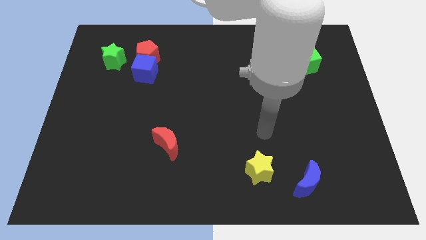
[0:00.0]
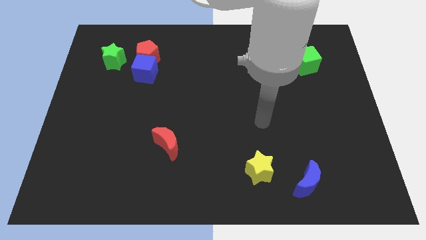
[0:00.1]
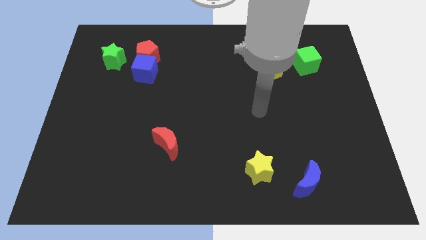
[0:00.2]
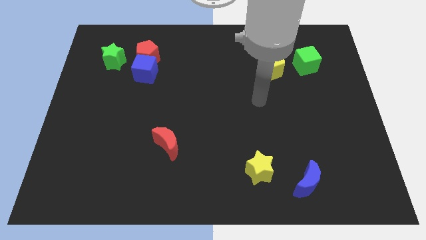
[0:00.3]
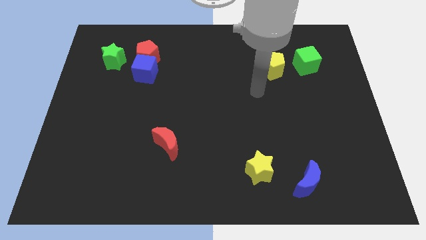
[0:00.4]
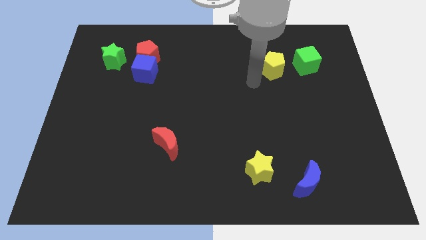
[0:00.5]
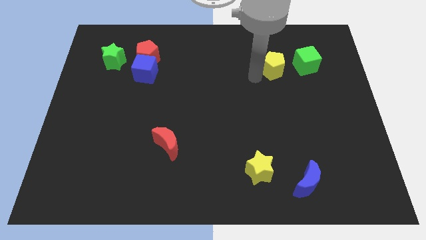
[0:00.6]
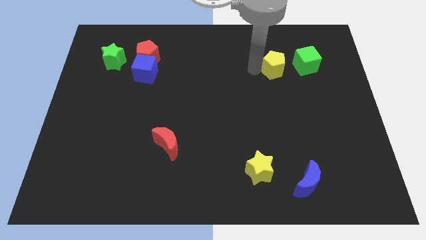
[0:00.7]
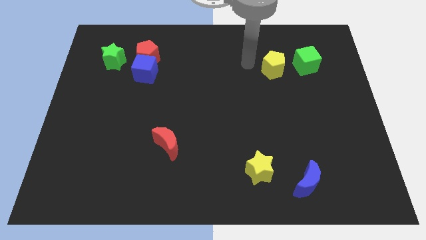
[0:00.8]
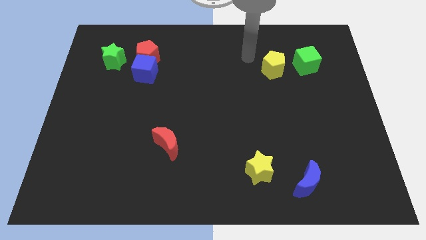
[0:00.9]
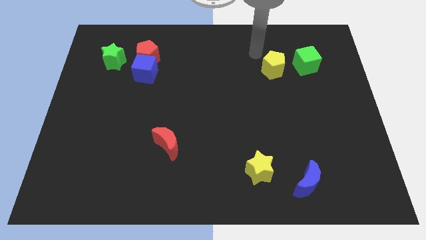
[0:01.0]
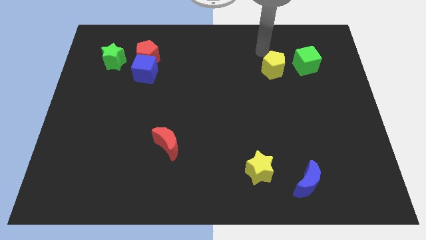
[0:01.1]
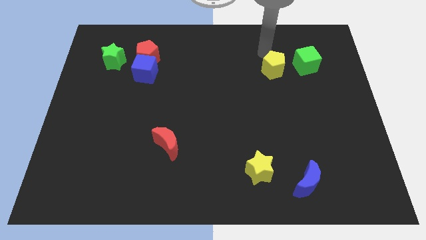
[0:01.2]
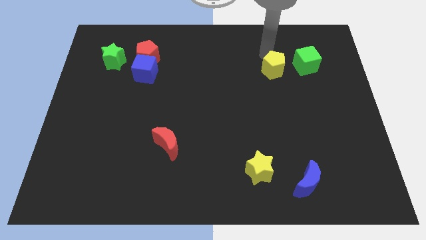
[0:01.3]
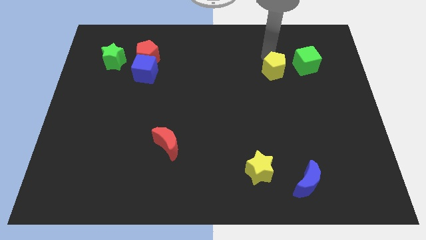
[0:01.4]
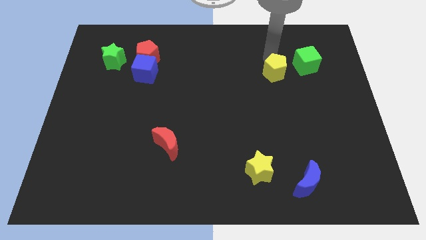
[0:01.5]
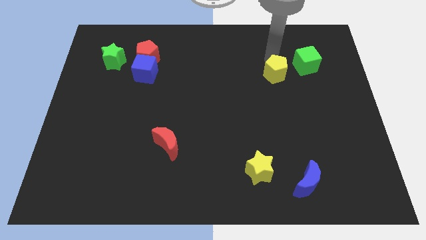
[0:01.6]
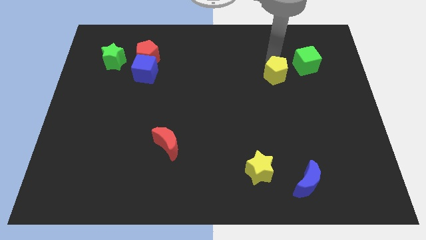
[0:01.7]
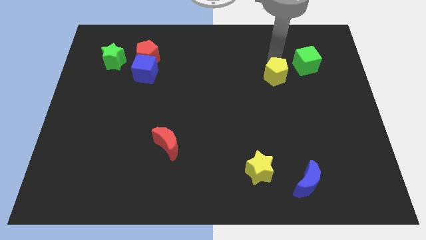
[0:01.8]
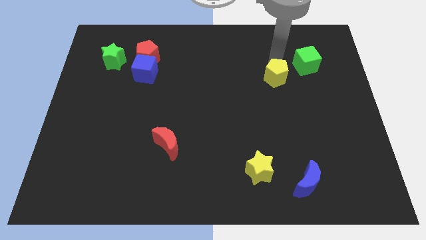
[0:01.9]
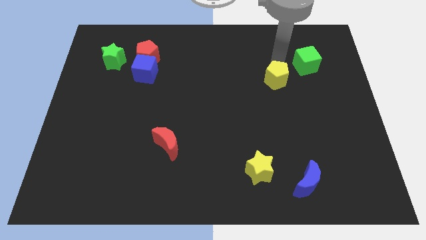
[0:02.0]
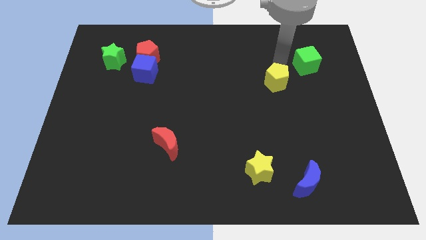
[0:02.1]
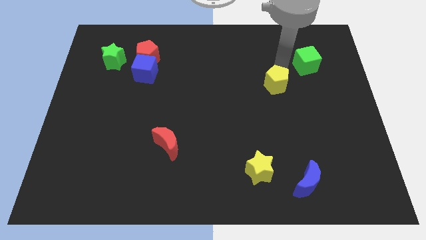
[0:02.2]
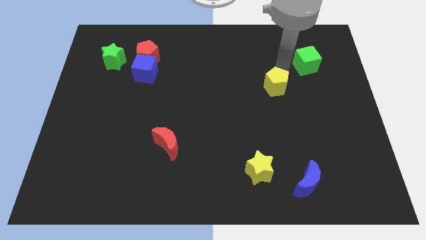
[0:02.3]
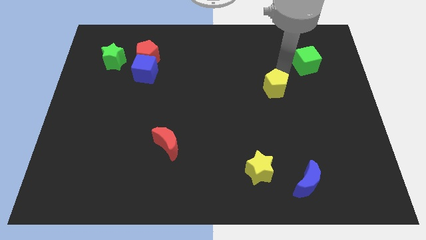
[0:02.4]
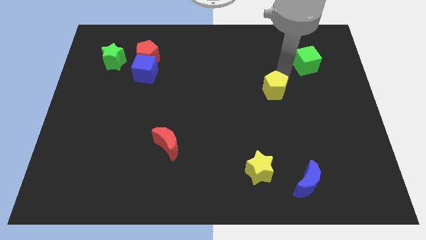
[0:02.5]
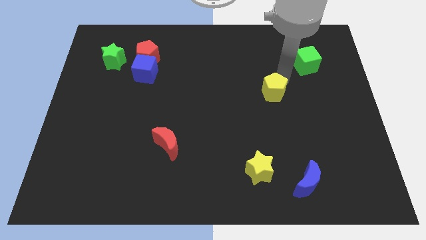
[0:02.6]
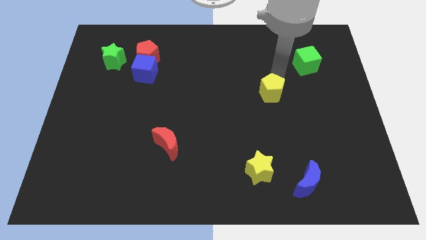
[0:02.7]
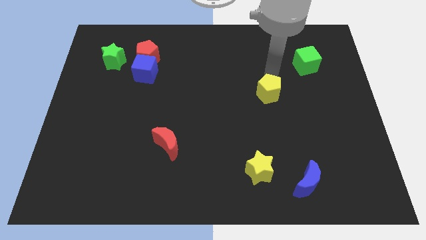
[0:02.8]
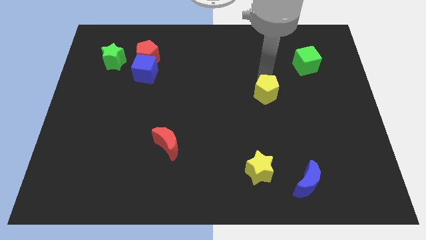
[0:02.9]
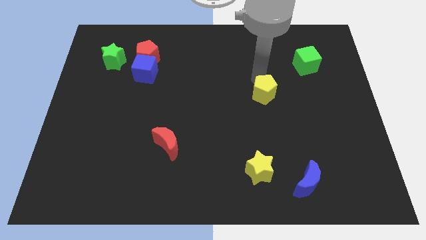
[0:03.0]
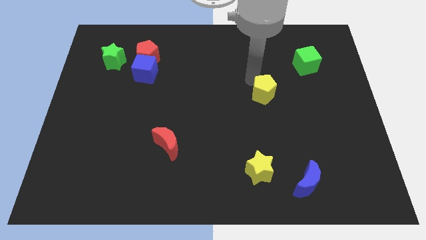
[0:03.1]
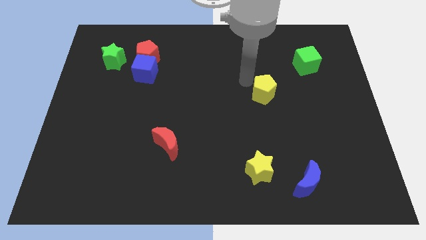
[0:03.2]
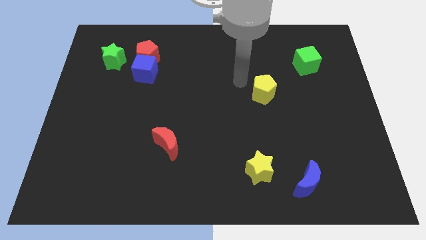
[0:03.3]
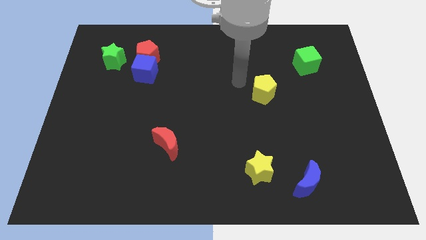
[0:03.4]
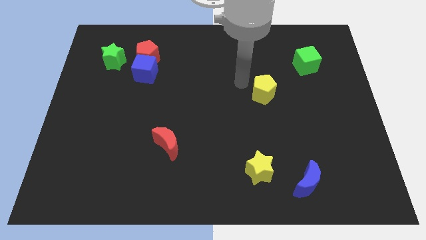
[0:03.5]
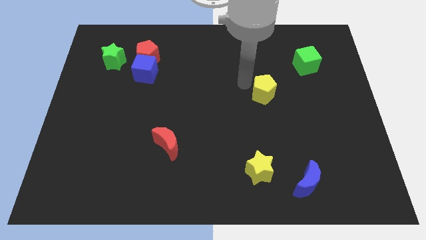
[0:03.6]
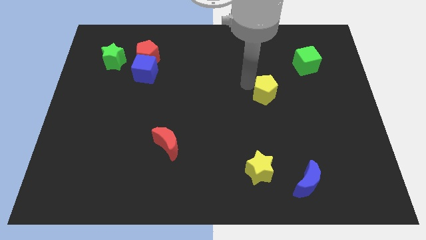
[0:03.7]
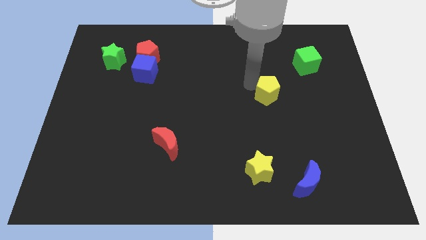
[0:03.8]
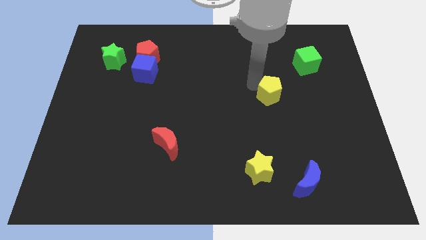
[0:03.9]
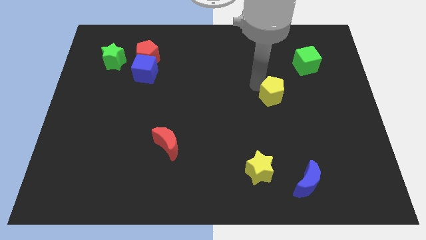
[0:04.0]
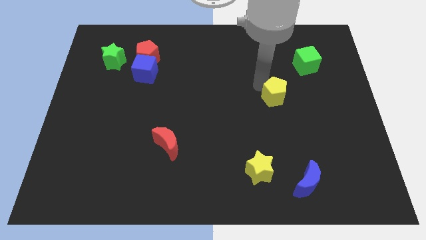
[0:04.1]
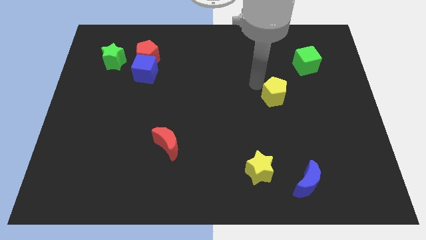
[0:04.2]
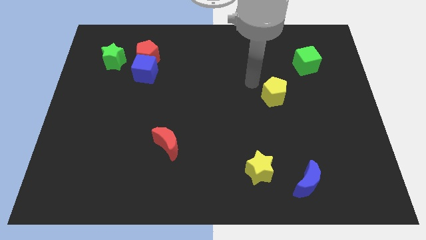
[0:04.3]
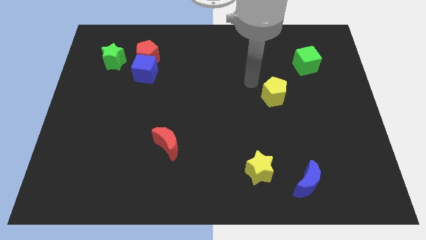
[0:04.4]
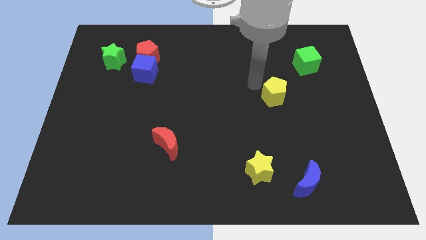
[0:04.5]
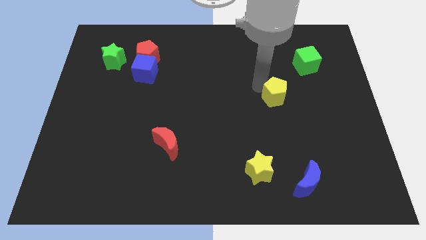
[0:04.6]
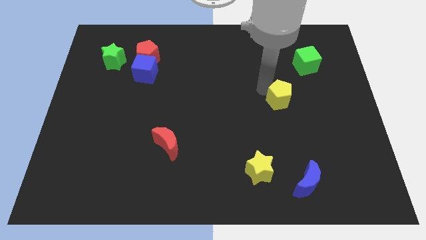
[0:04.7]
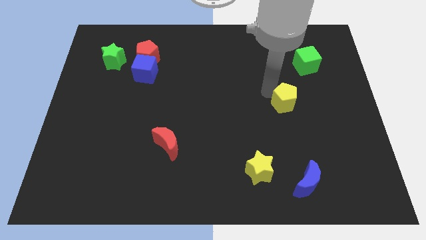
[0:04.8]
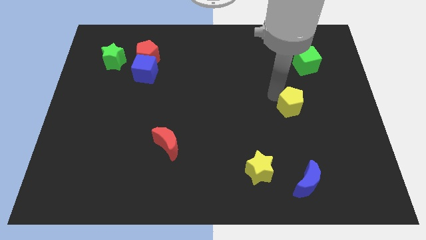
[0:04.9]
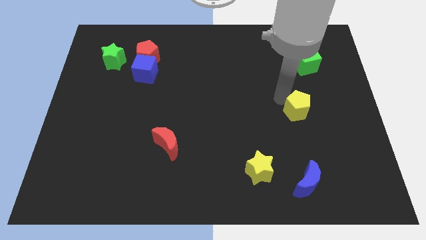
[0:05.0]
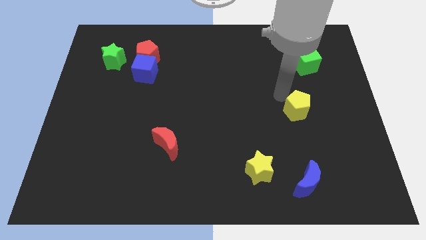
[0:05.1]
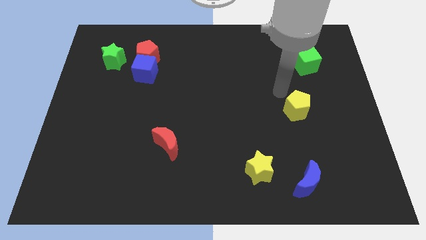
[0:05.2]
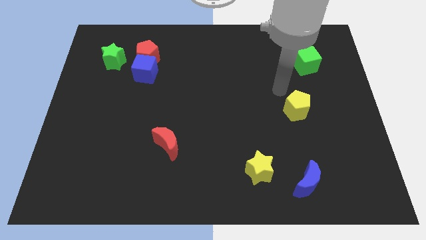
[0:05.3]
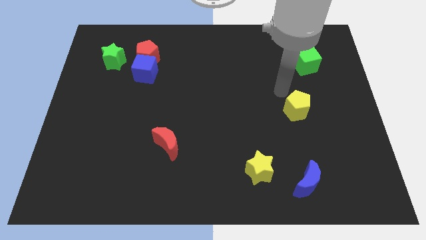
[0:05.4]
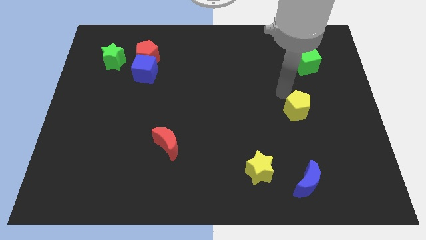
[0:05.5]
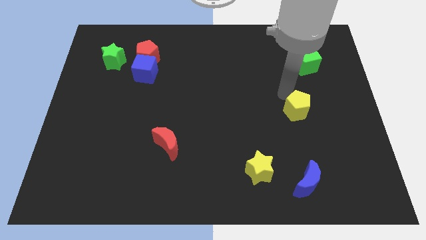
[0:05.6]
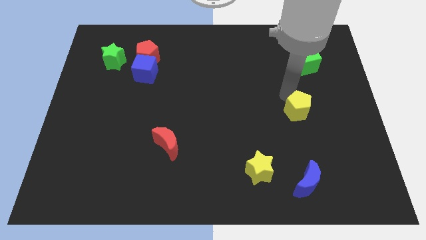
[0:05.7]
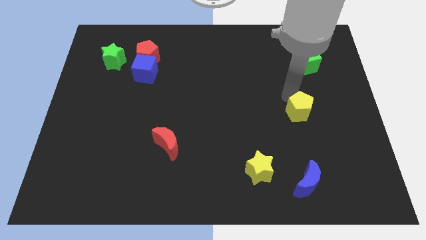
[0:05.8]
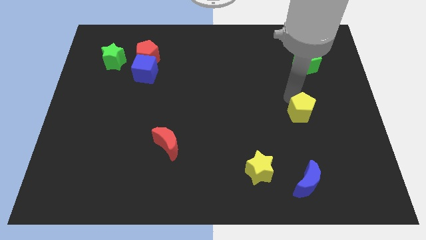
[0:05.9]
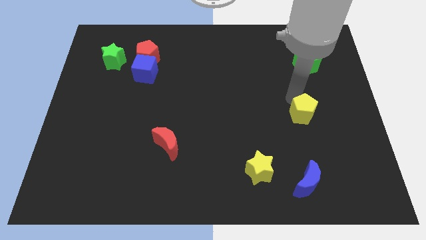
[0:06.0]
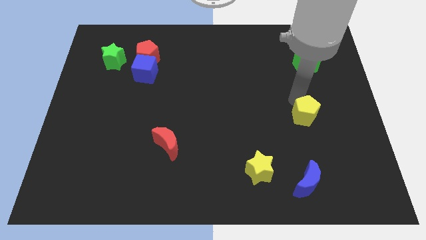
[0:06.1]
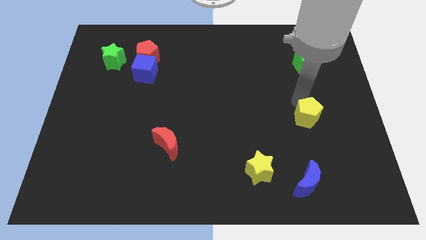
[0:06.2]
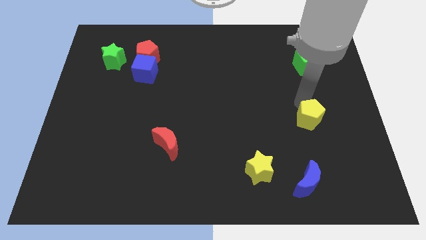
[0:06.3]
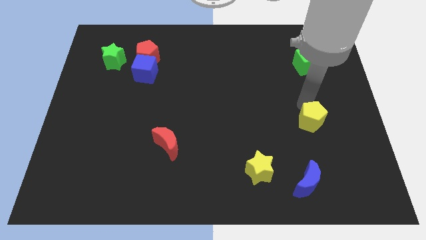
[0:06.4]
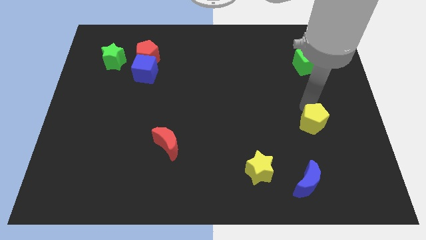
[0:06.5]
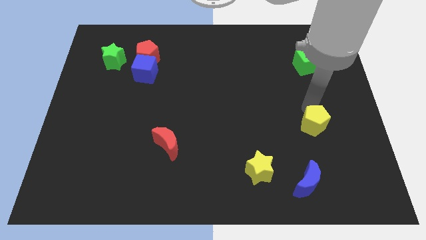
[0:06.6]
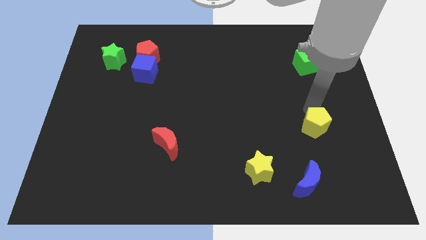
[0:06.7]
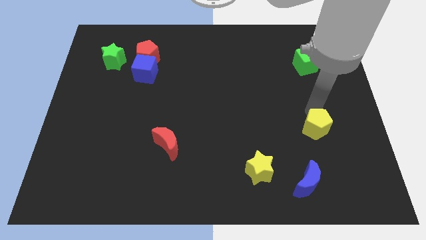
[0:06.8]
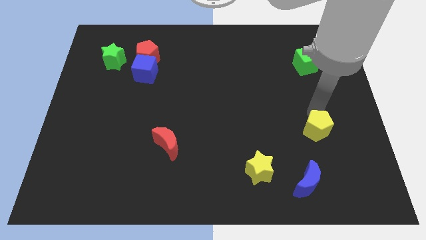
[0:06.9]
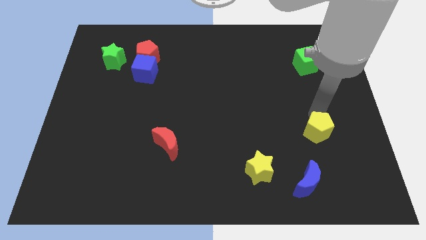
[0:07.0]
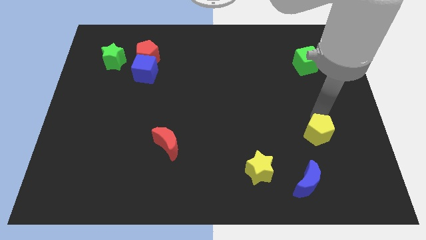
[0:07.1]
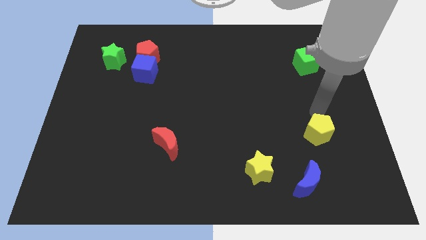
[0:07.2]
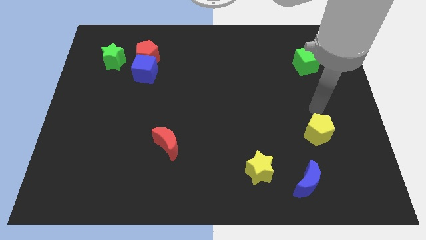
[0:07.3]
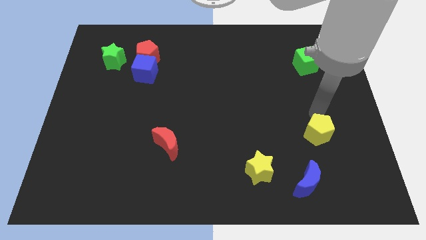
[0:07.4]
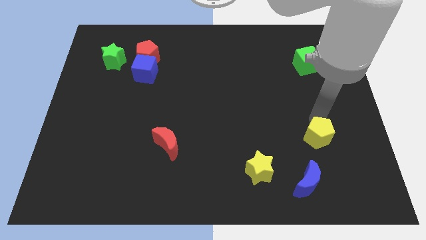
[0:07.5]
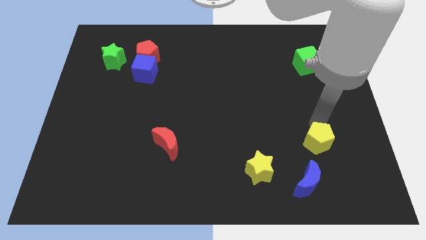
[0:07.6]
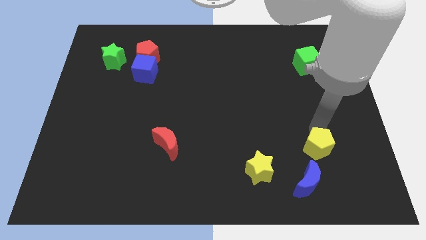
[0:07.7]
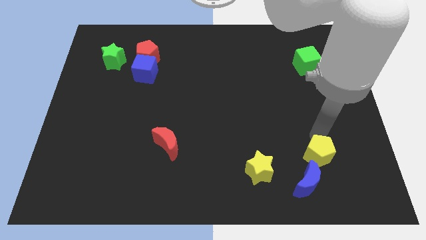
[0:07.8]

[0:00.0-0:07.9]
move the yellow pentagon to the right of the yellow star
